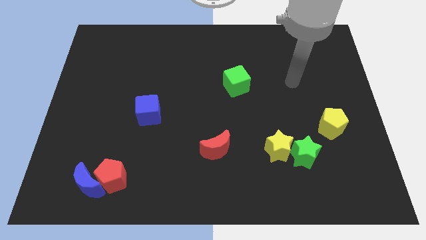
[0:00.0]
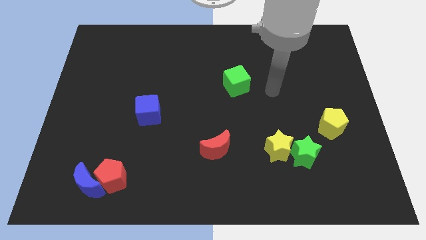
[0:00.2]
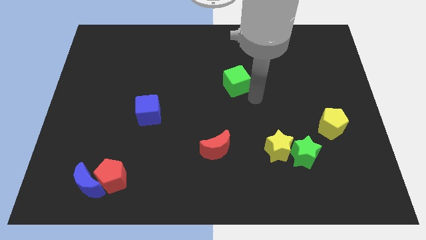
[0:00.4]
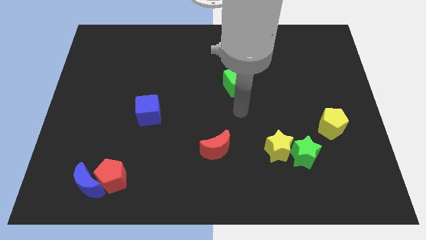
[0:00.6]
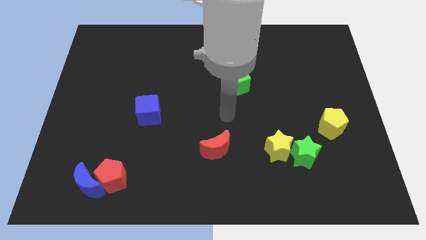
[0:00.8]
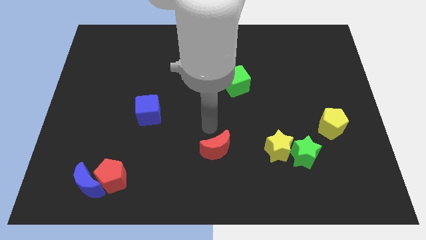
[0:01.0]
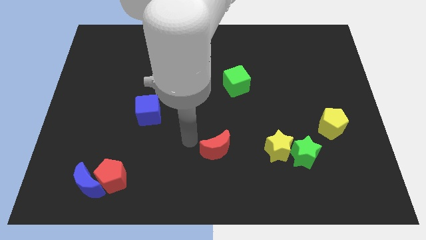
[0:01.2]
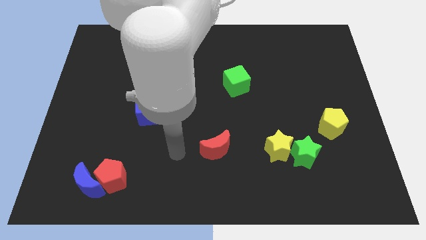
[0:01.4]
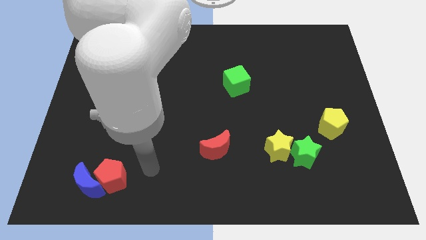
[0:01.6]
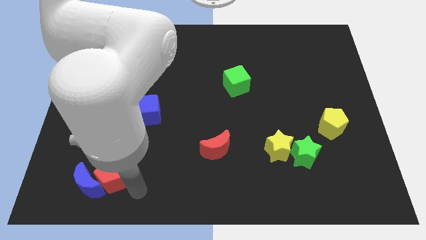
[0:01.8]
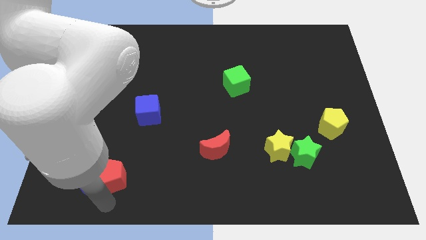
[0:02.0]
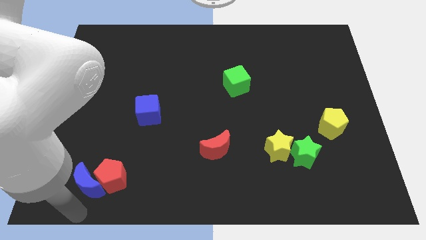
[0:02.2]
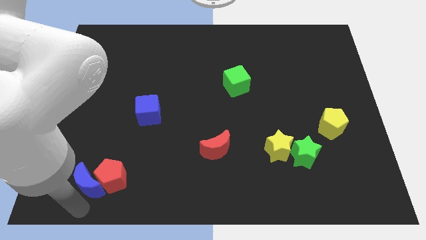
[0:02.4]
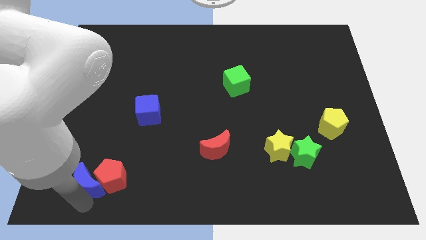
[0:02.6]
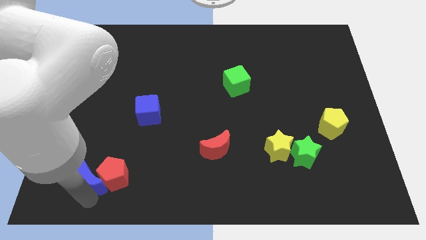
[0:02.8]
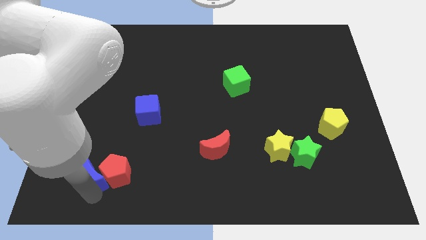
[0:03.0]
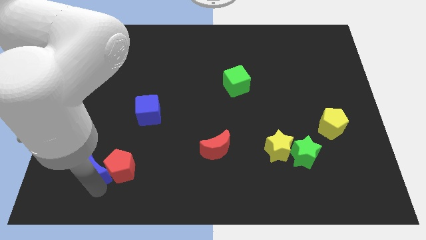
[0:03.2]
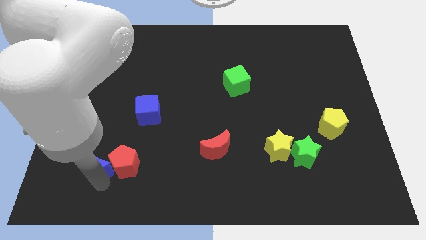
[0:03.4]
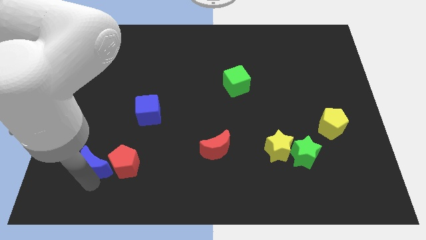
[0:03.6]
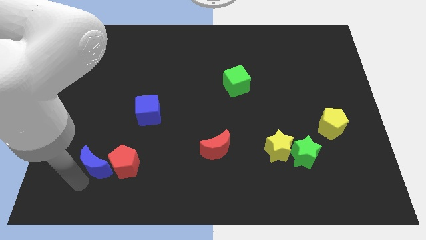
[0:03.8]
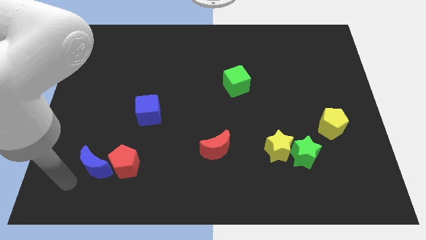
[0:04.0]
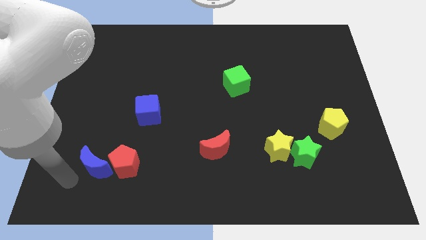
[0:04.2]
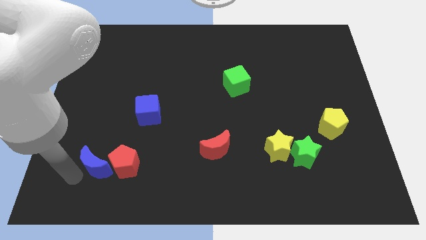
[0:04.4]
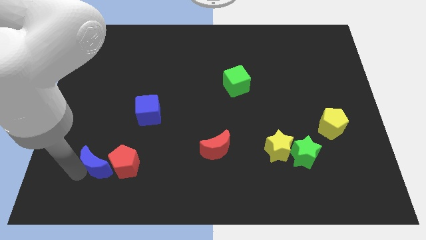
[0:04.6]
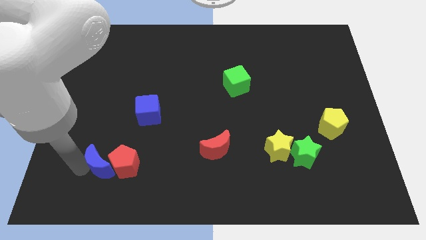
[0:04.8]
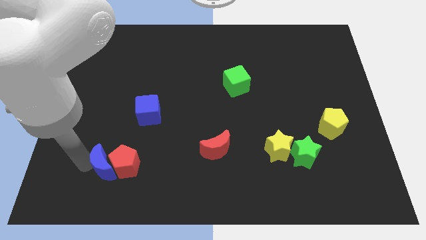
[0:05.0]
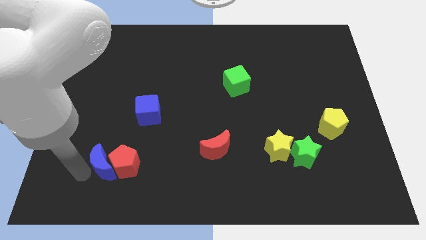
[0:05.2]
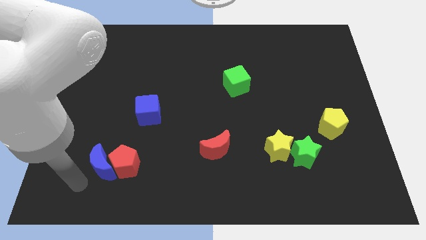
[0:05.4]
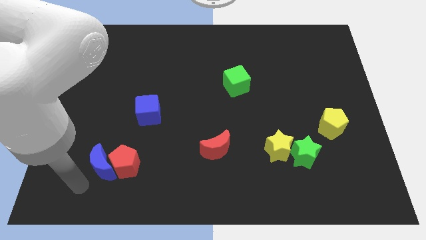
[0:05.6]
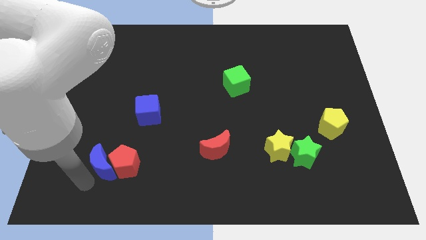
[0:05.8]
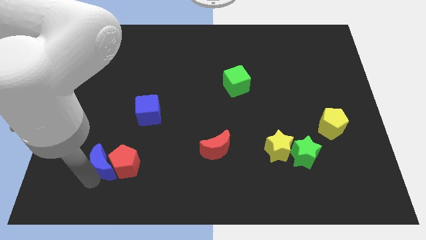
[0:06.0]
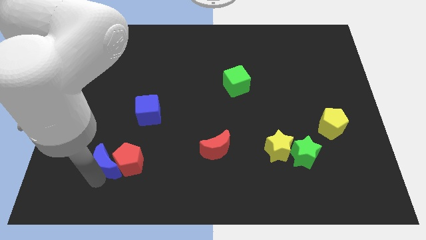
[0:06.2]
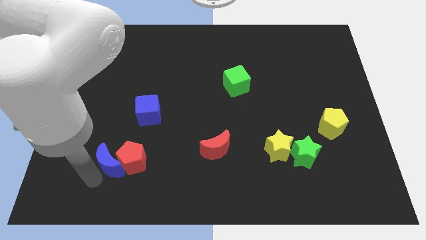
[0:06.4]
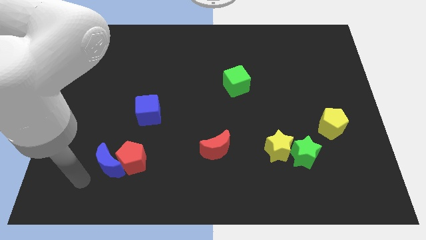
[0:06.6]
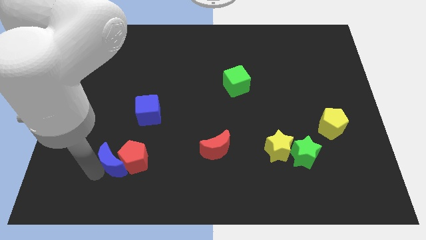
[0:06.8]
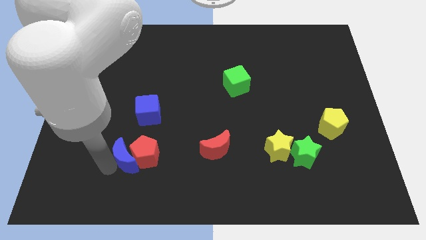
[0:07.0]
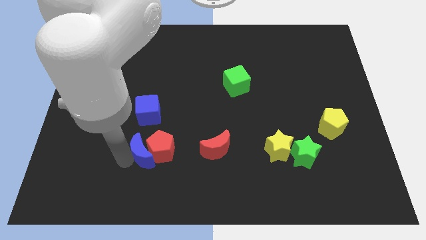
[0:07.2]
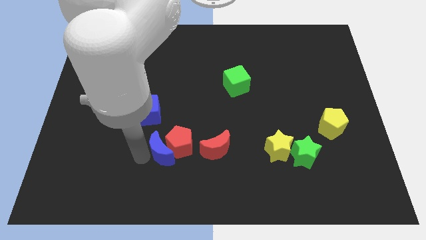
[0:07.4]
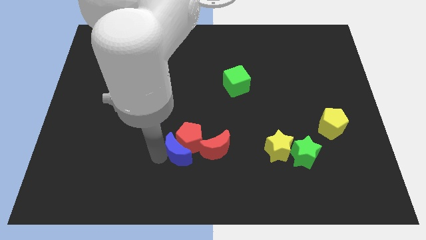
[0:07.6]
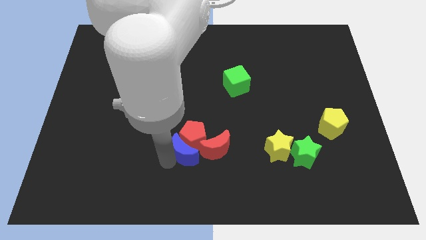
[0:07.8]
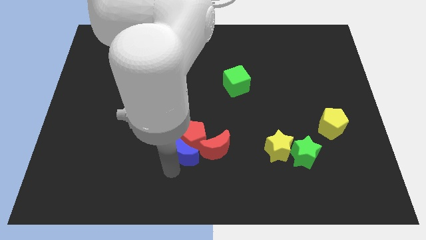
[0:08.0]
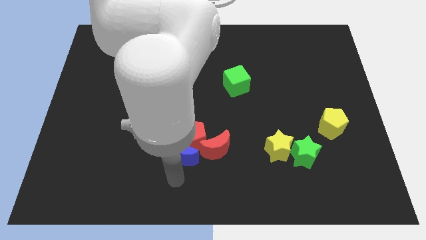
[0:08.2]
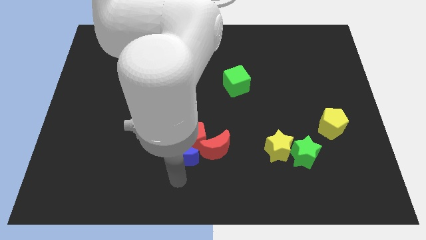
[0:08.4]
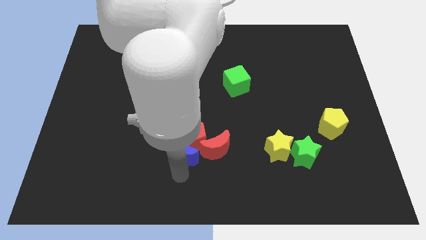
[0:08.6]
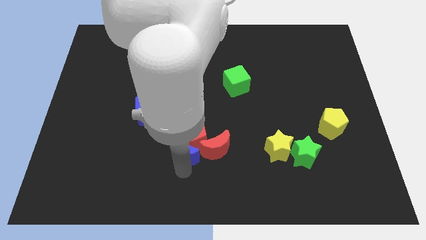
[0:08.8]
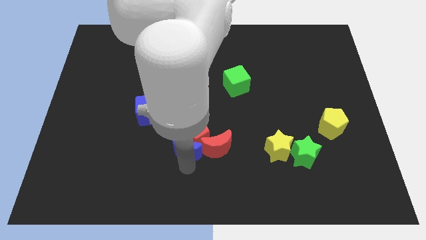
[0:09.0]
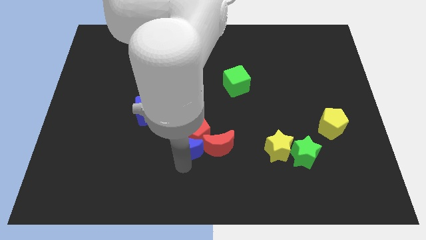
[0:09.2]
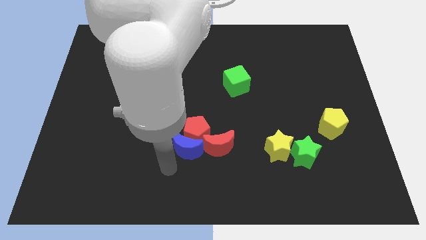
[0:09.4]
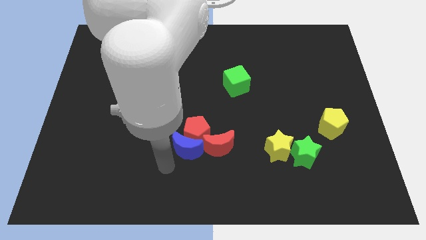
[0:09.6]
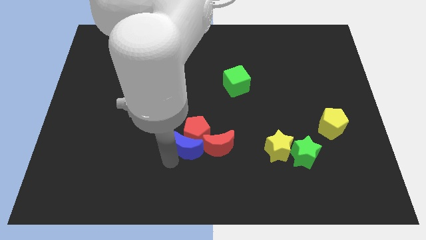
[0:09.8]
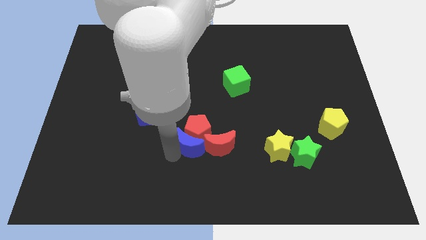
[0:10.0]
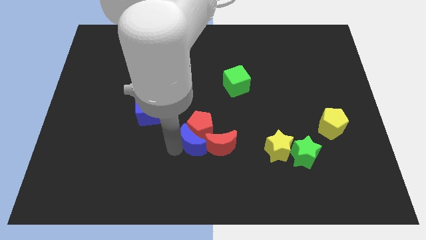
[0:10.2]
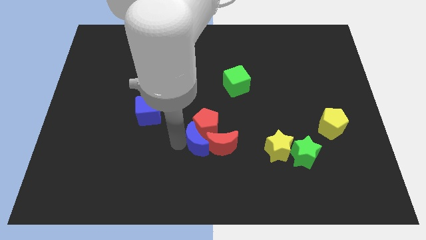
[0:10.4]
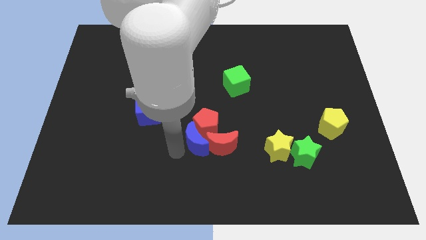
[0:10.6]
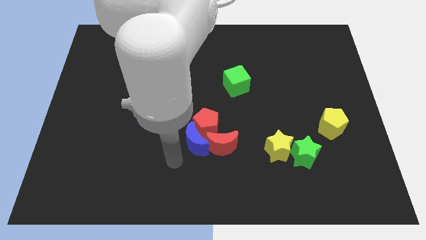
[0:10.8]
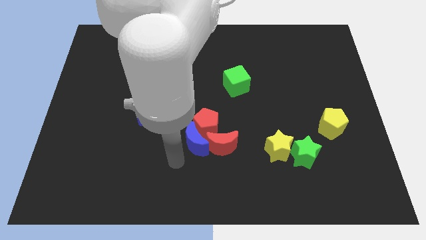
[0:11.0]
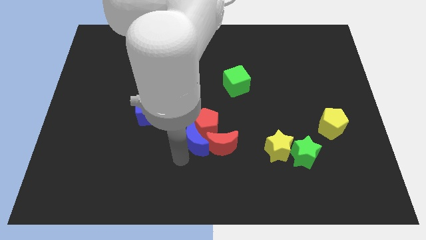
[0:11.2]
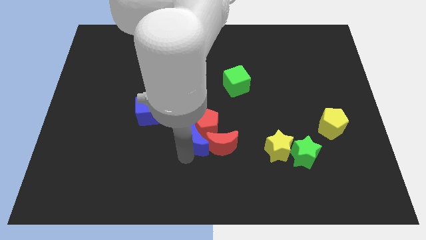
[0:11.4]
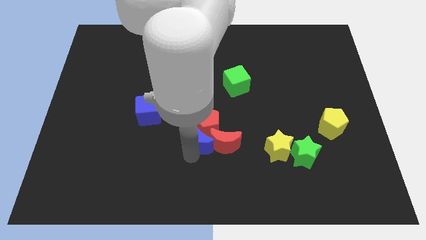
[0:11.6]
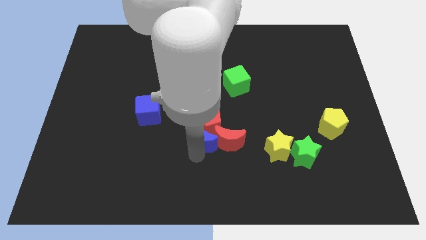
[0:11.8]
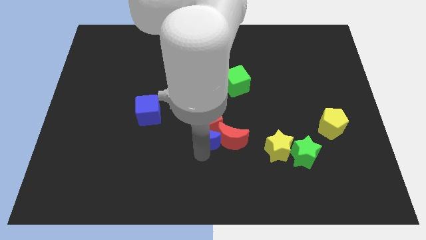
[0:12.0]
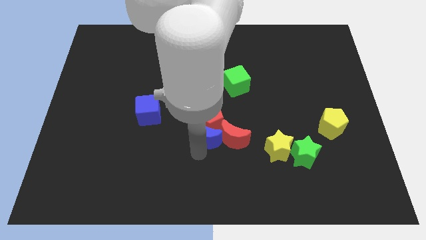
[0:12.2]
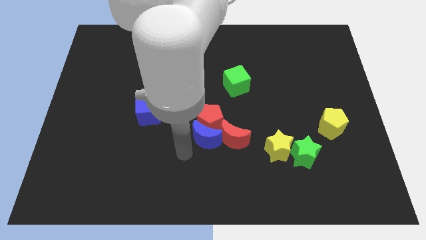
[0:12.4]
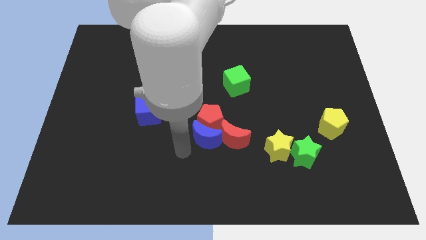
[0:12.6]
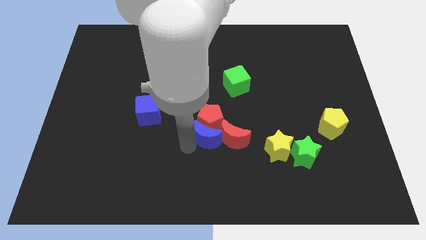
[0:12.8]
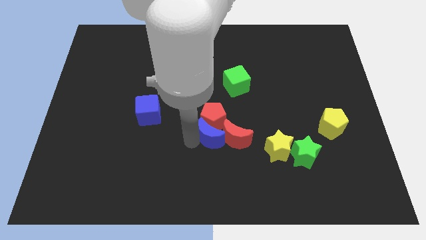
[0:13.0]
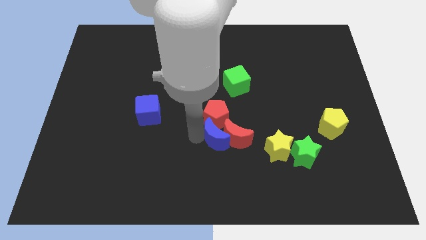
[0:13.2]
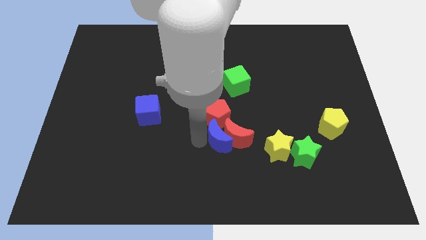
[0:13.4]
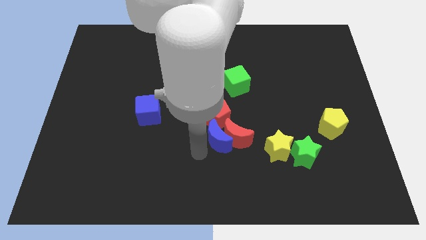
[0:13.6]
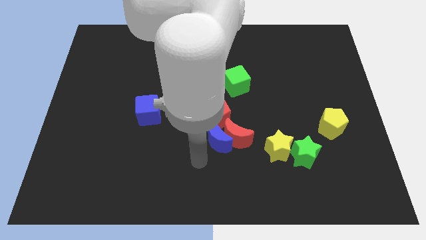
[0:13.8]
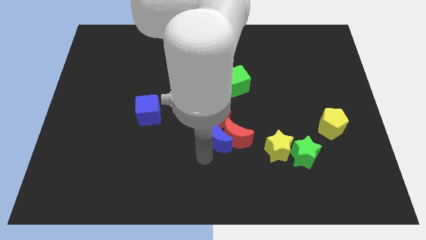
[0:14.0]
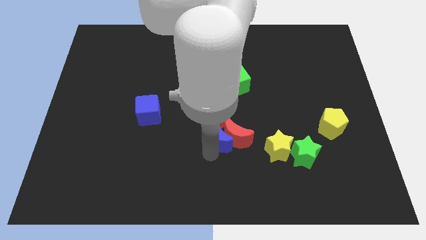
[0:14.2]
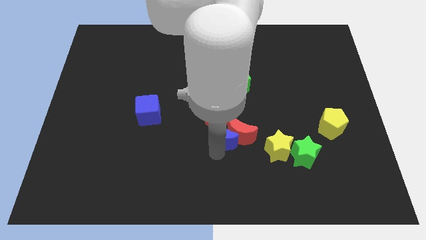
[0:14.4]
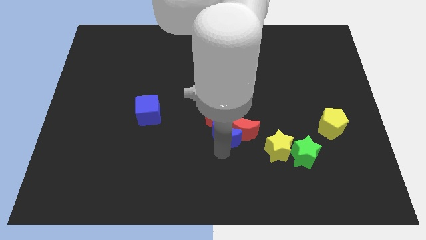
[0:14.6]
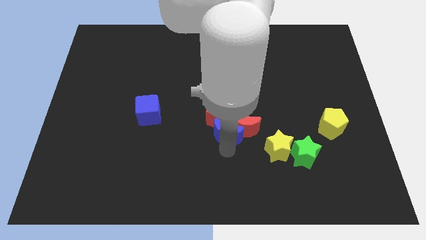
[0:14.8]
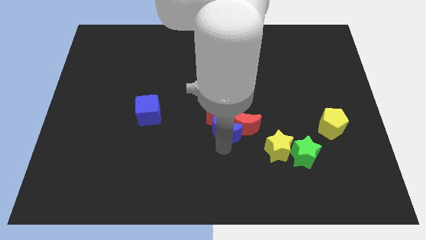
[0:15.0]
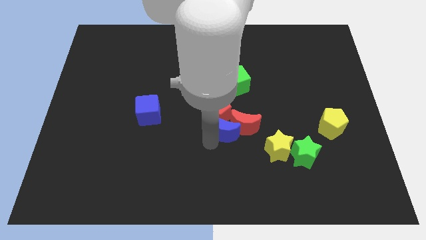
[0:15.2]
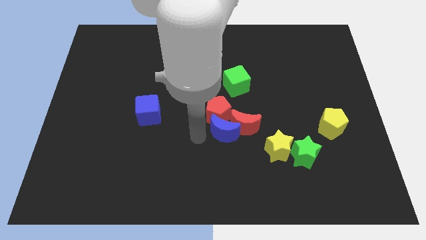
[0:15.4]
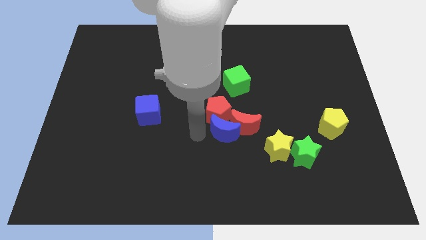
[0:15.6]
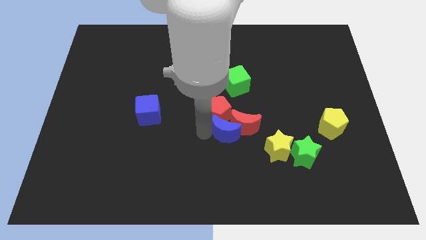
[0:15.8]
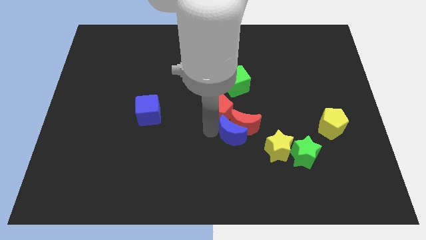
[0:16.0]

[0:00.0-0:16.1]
put the blue moon diagonally up and to the left of the yellow star
